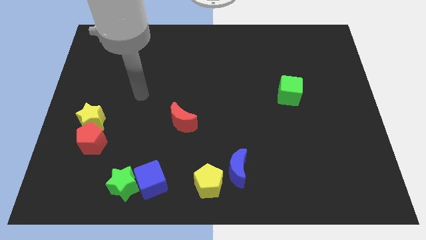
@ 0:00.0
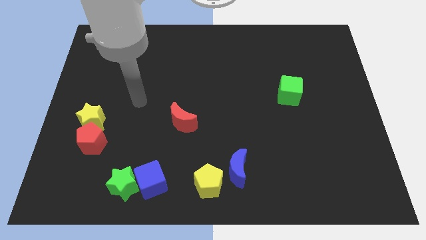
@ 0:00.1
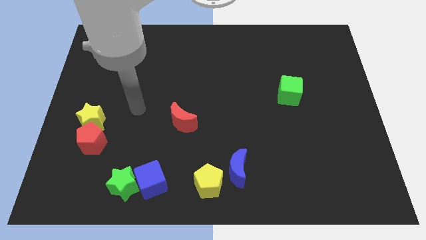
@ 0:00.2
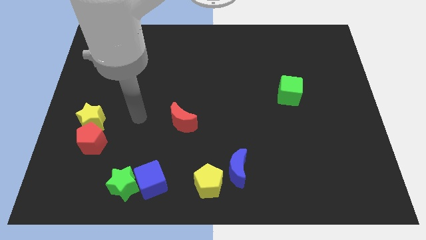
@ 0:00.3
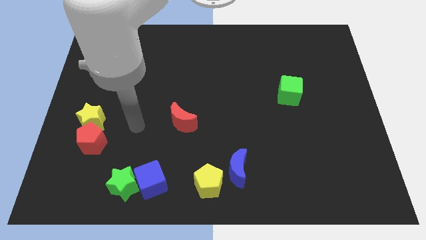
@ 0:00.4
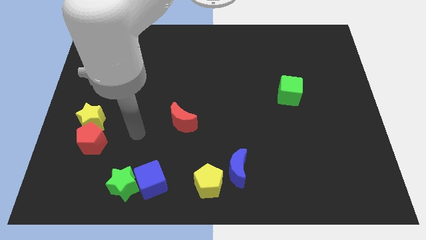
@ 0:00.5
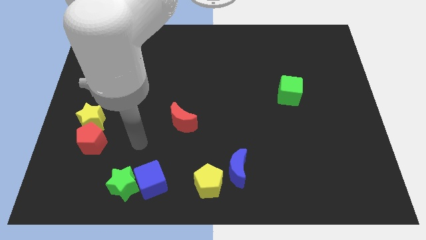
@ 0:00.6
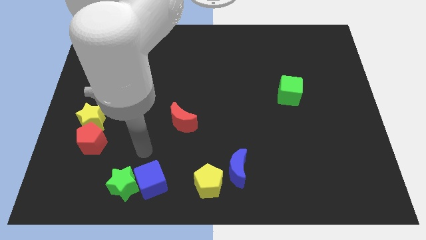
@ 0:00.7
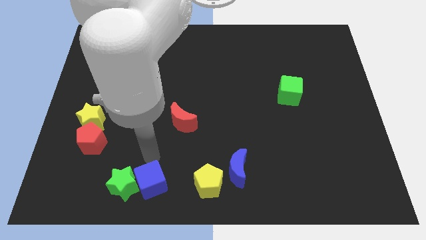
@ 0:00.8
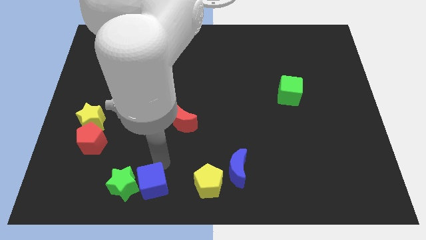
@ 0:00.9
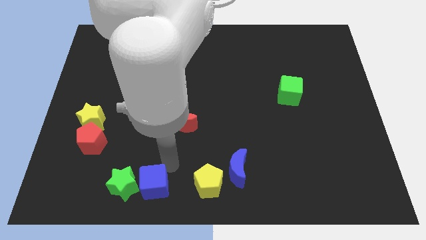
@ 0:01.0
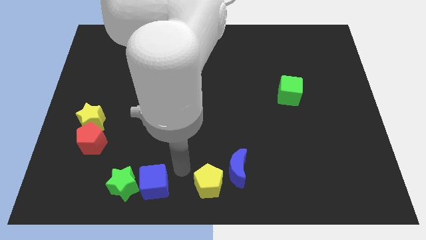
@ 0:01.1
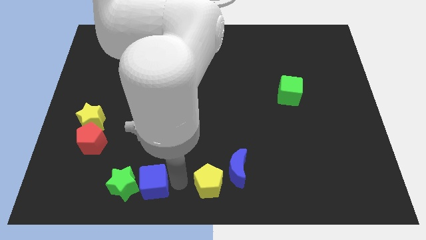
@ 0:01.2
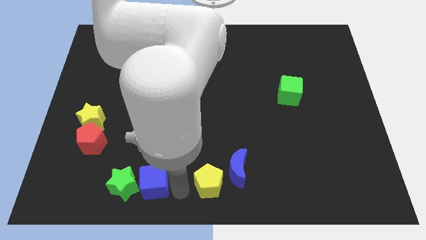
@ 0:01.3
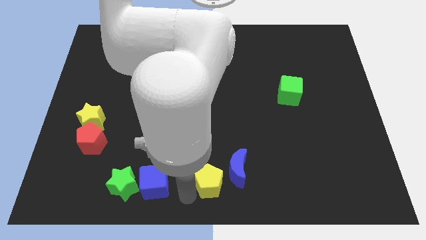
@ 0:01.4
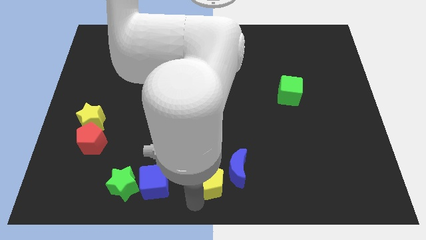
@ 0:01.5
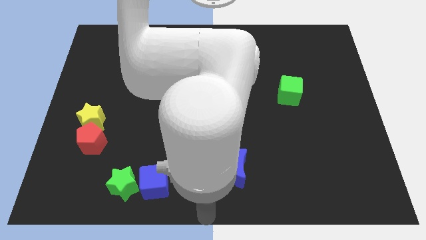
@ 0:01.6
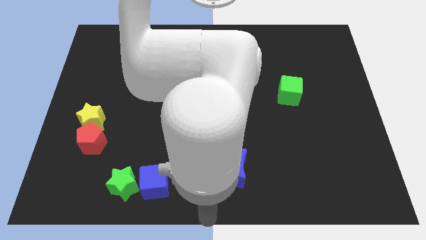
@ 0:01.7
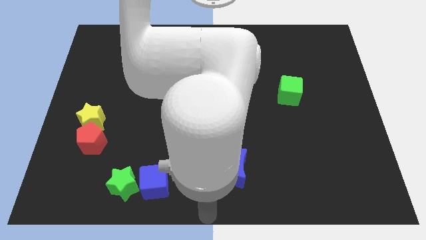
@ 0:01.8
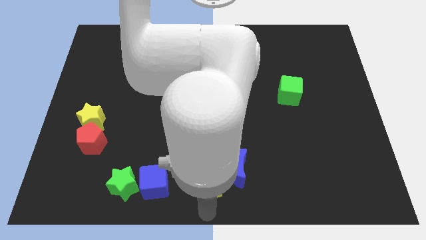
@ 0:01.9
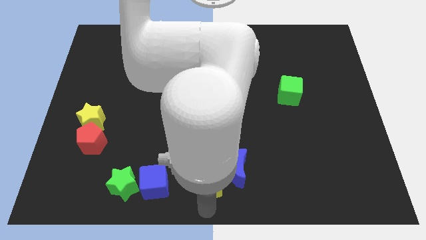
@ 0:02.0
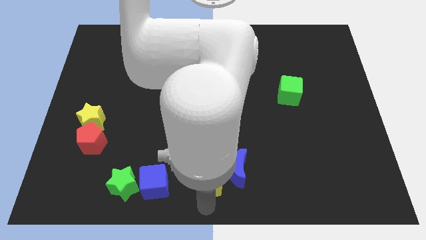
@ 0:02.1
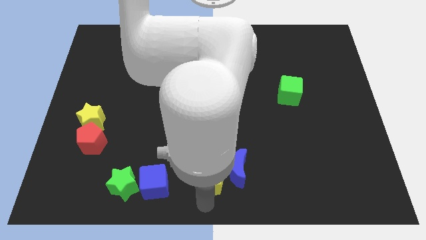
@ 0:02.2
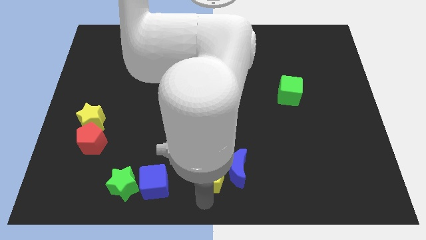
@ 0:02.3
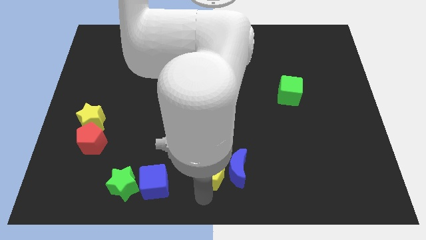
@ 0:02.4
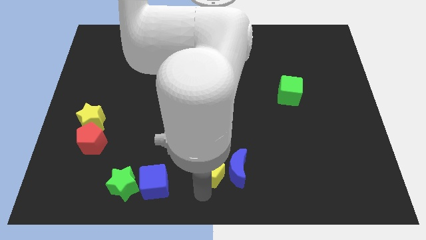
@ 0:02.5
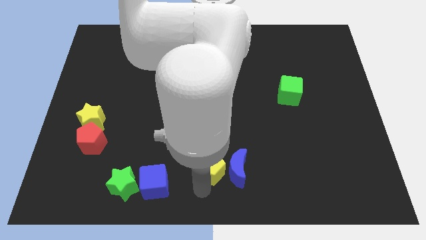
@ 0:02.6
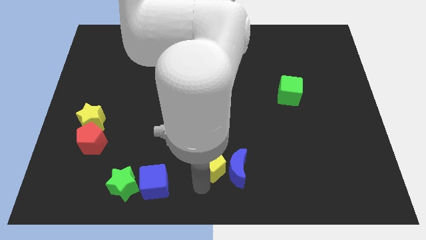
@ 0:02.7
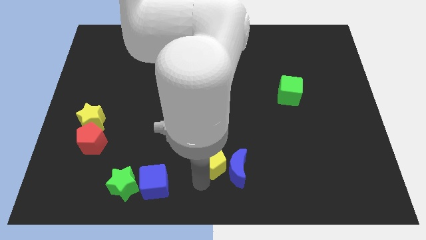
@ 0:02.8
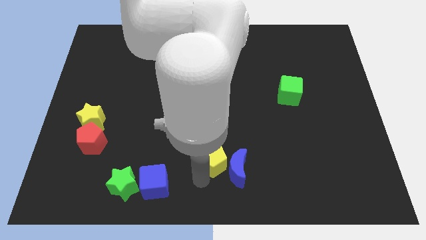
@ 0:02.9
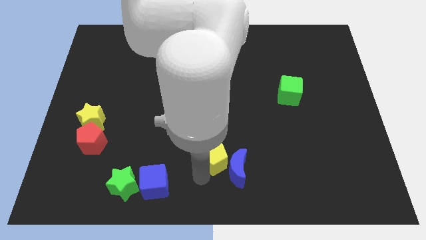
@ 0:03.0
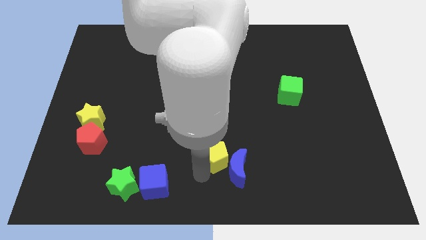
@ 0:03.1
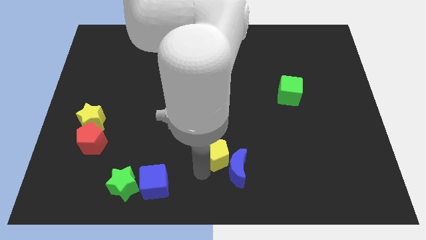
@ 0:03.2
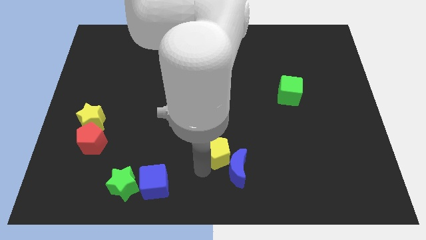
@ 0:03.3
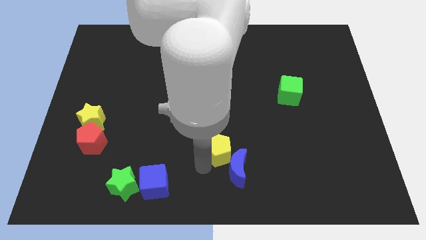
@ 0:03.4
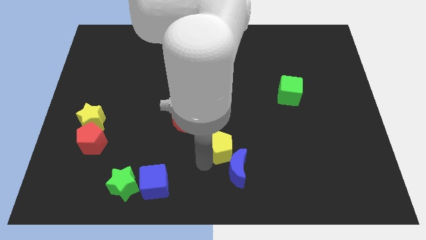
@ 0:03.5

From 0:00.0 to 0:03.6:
slide the yellow pentagon somewhat upwards and right diagonally

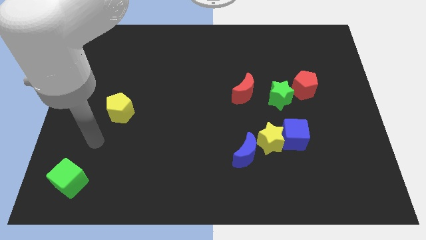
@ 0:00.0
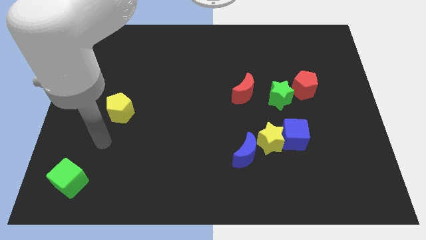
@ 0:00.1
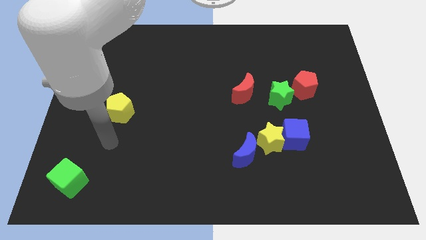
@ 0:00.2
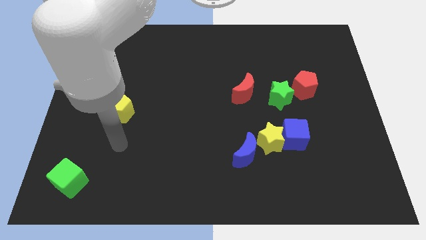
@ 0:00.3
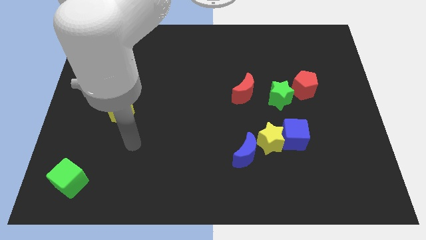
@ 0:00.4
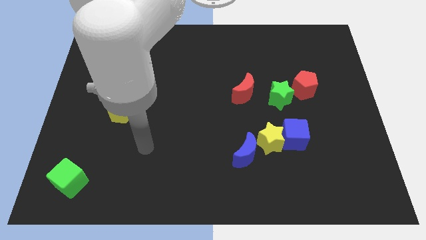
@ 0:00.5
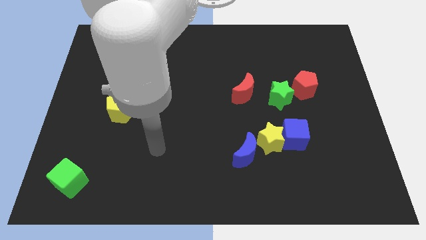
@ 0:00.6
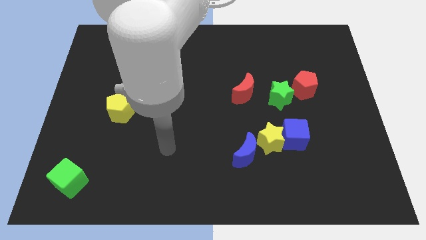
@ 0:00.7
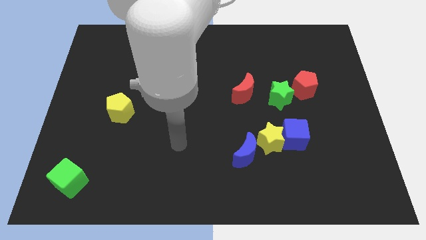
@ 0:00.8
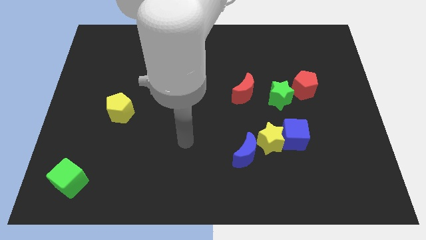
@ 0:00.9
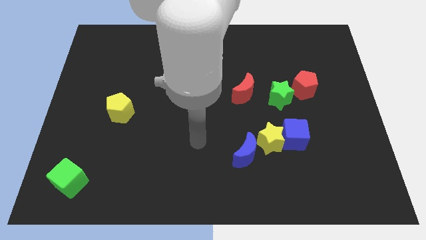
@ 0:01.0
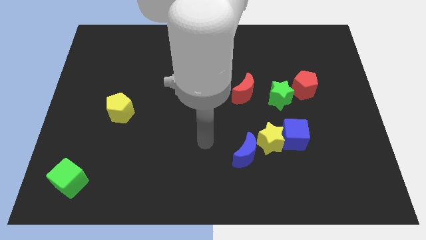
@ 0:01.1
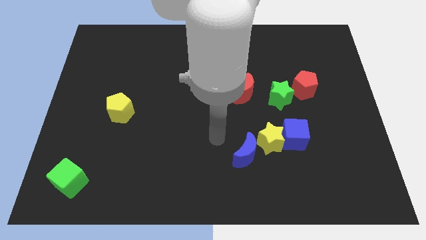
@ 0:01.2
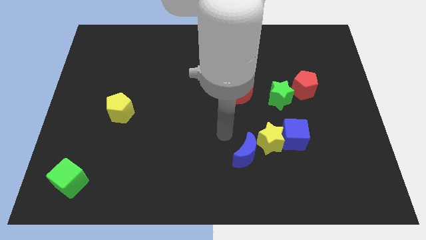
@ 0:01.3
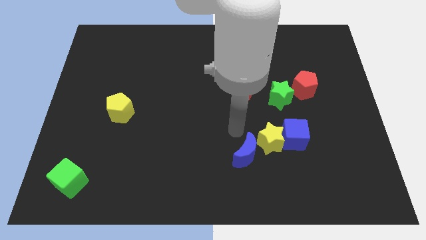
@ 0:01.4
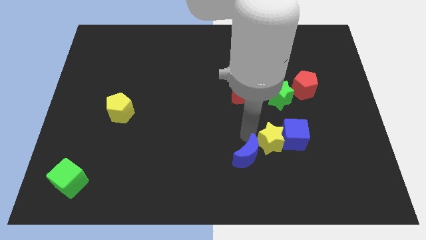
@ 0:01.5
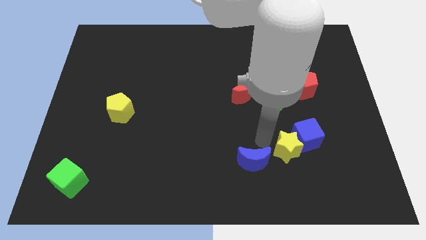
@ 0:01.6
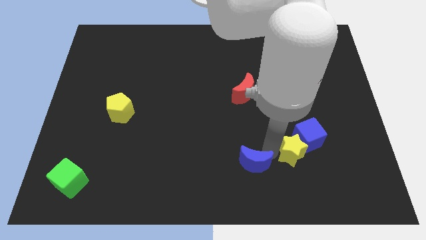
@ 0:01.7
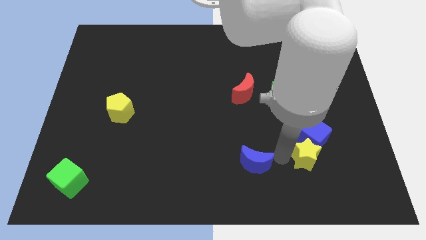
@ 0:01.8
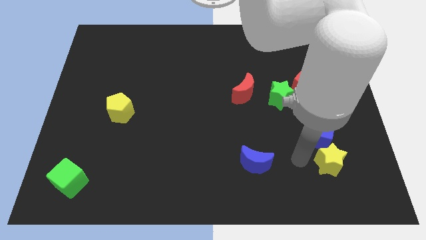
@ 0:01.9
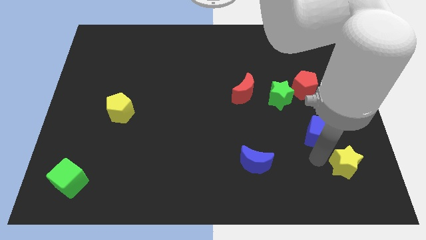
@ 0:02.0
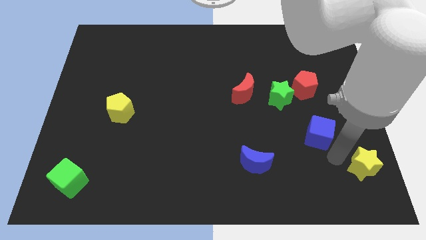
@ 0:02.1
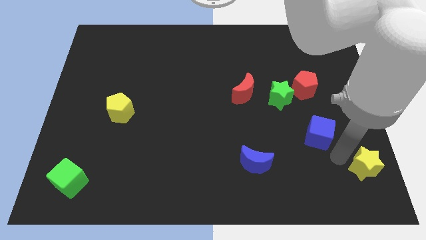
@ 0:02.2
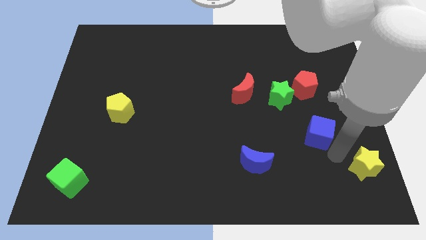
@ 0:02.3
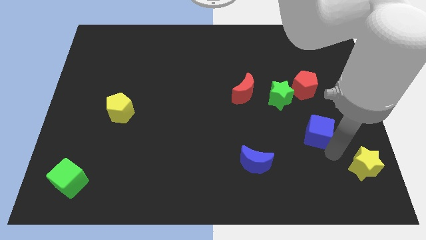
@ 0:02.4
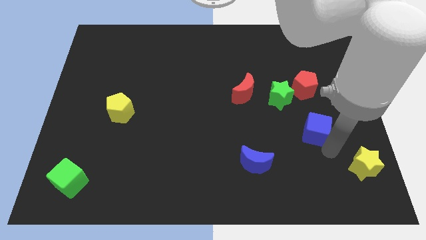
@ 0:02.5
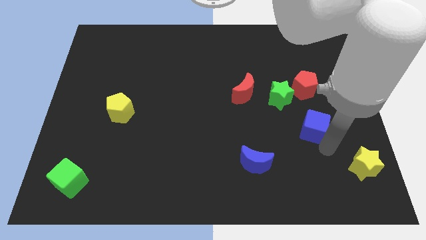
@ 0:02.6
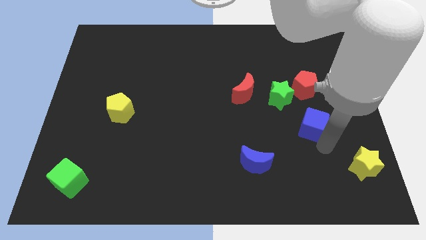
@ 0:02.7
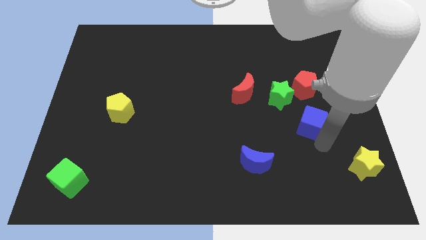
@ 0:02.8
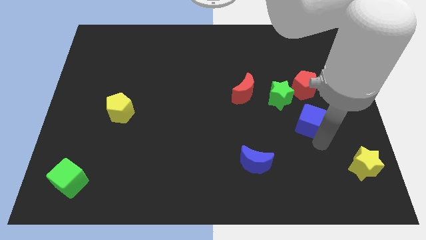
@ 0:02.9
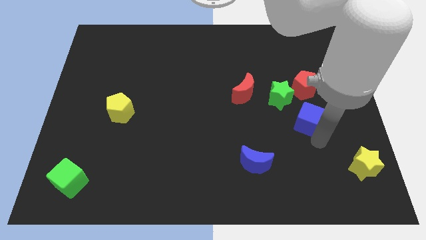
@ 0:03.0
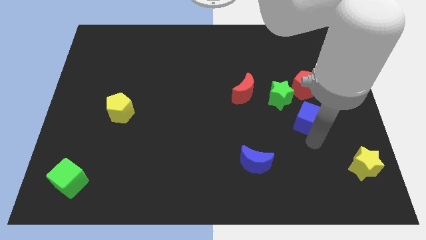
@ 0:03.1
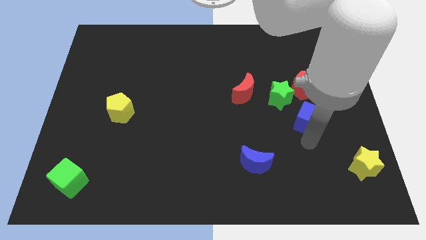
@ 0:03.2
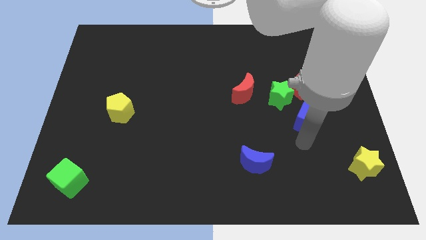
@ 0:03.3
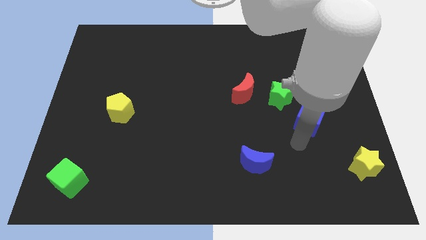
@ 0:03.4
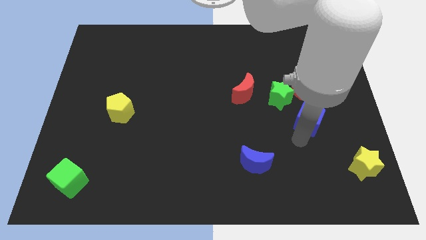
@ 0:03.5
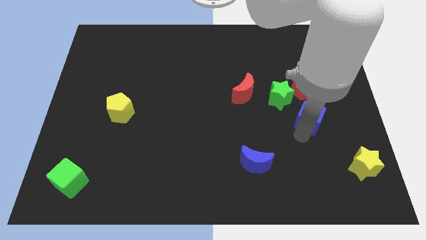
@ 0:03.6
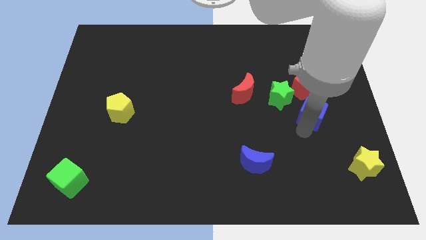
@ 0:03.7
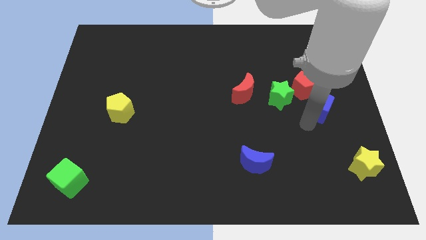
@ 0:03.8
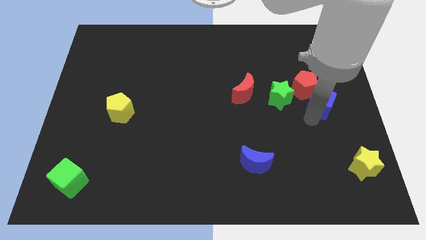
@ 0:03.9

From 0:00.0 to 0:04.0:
push the blue cube up a bit

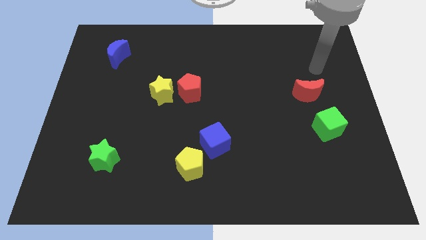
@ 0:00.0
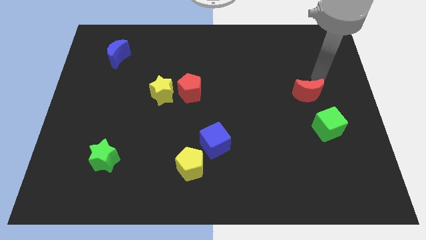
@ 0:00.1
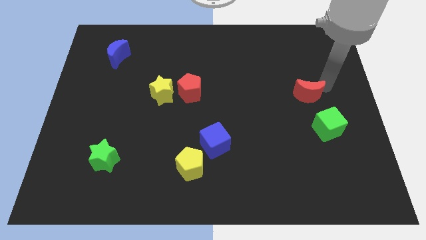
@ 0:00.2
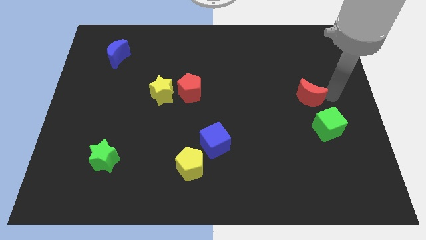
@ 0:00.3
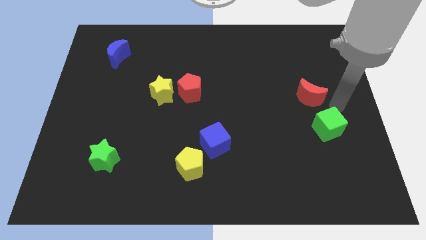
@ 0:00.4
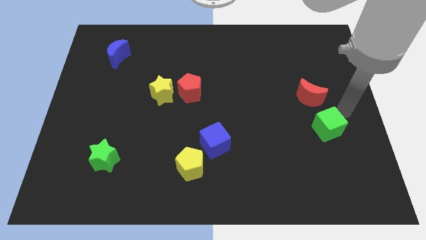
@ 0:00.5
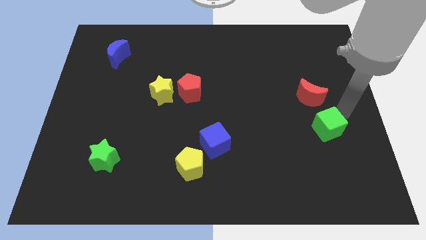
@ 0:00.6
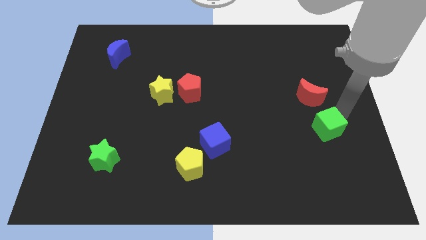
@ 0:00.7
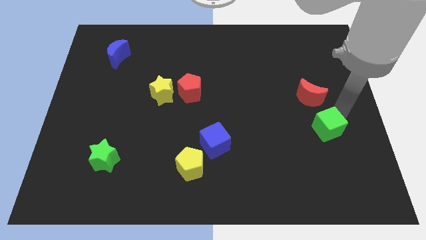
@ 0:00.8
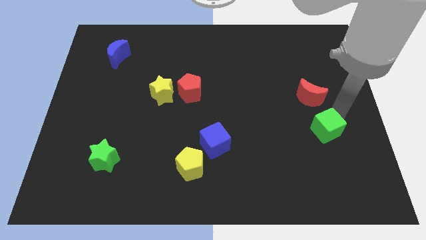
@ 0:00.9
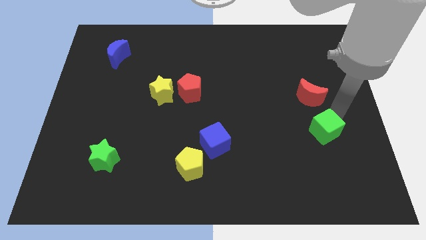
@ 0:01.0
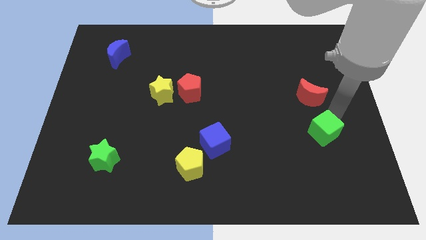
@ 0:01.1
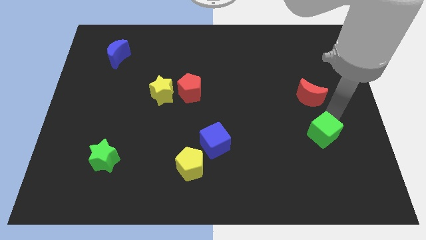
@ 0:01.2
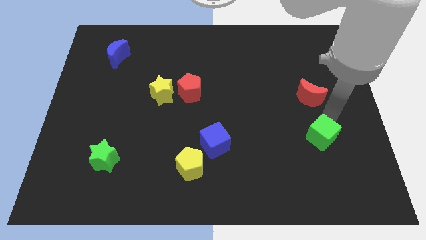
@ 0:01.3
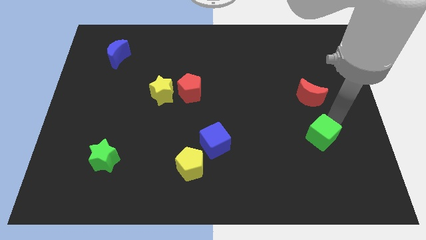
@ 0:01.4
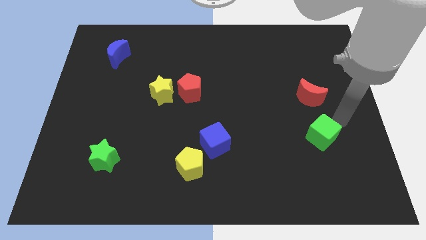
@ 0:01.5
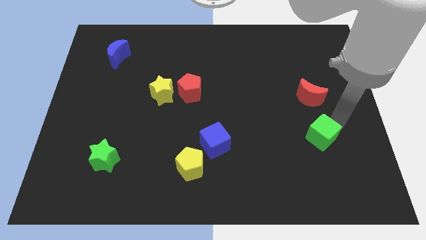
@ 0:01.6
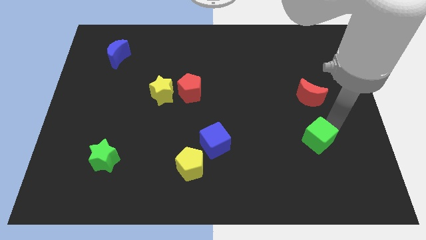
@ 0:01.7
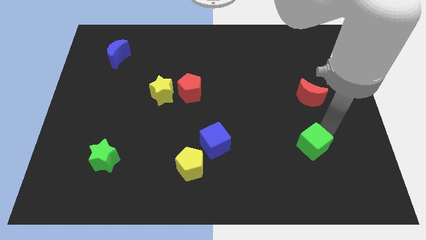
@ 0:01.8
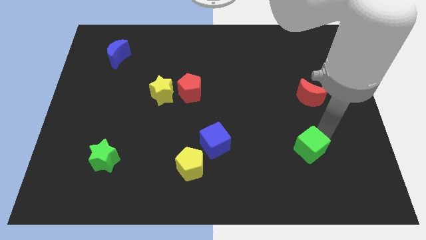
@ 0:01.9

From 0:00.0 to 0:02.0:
slightly slide the green cube diagonally downwards and to the left
